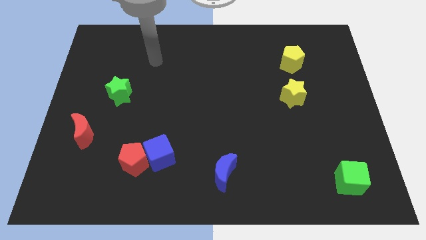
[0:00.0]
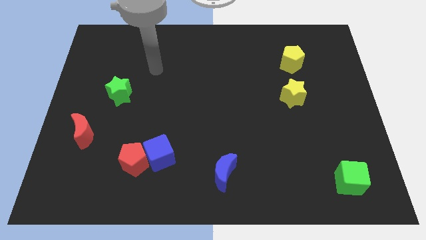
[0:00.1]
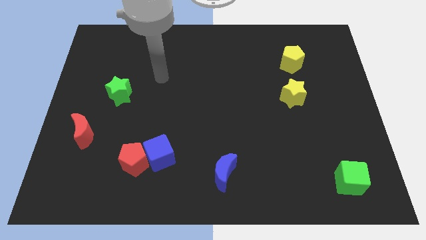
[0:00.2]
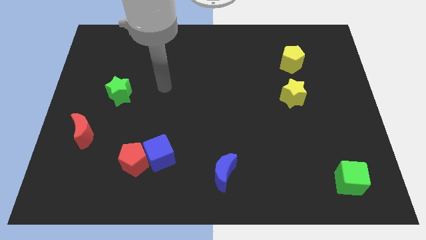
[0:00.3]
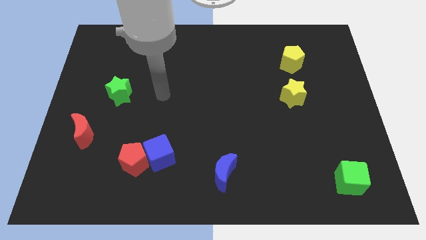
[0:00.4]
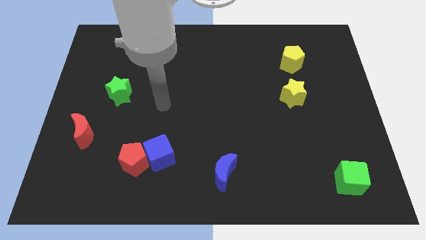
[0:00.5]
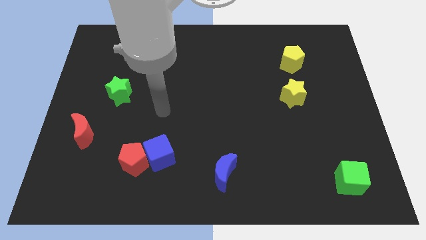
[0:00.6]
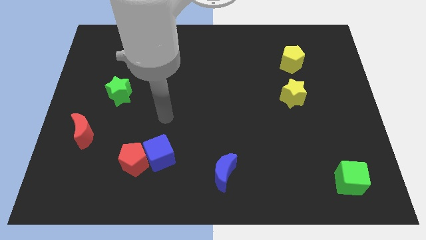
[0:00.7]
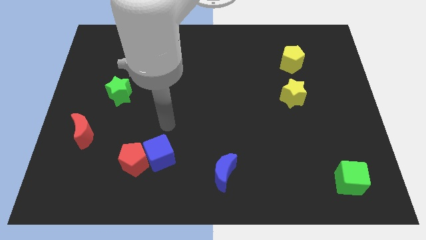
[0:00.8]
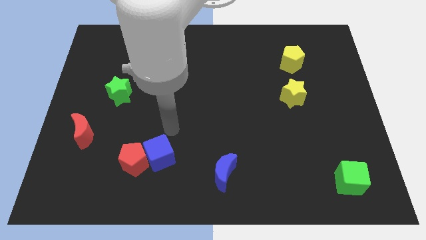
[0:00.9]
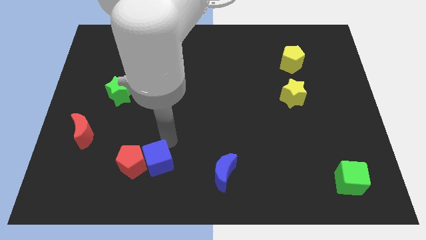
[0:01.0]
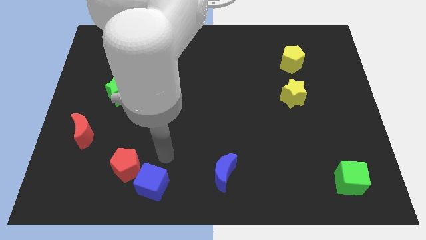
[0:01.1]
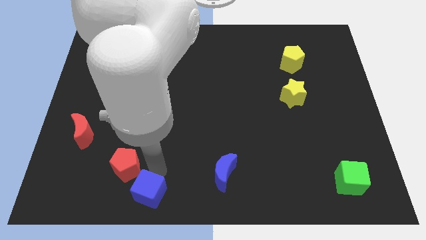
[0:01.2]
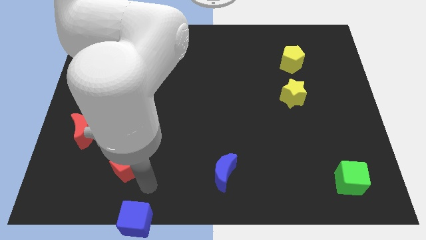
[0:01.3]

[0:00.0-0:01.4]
pull the red pentagon apart from the blue cube

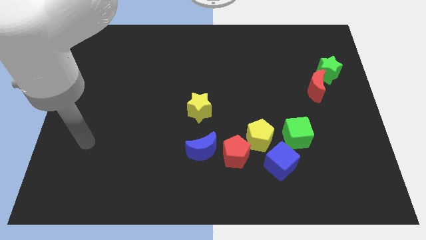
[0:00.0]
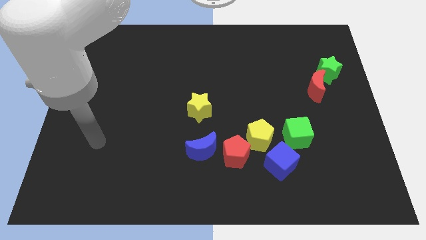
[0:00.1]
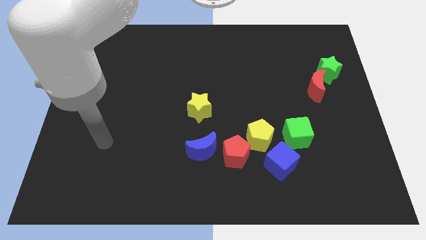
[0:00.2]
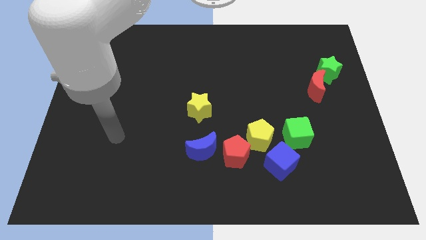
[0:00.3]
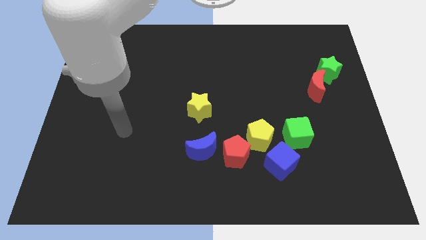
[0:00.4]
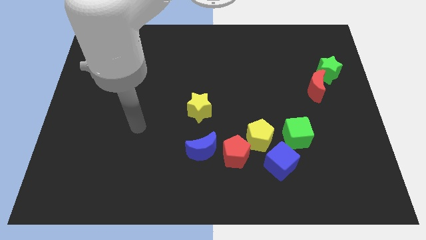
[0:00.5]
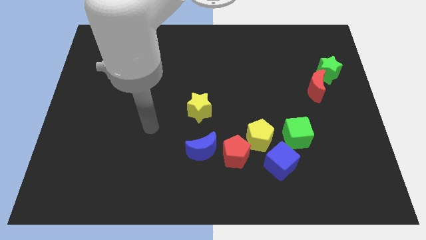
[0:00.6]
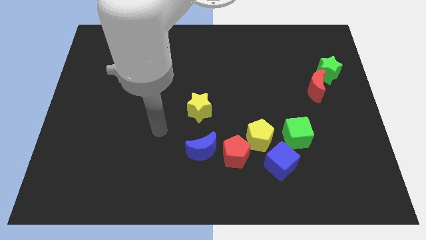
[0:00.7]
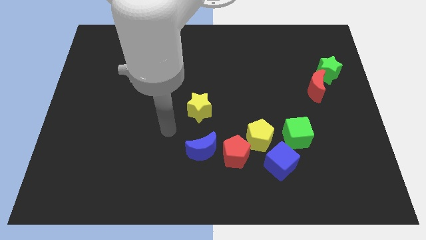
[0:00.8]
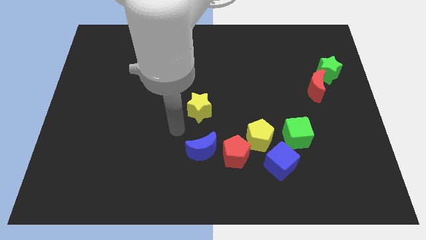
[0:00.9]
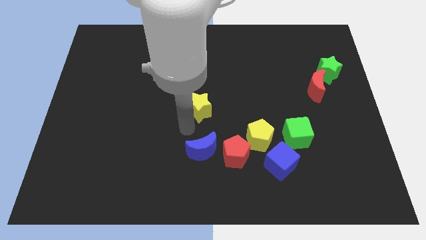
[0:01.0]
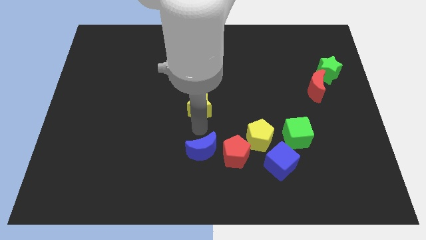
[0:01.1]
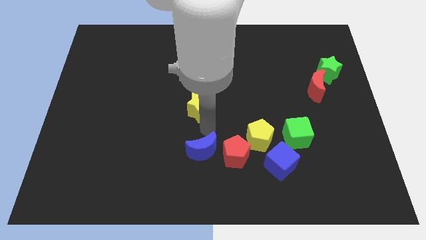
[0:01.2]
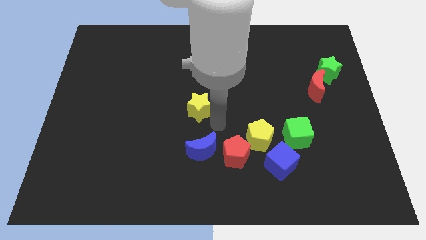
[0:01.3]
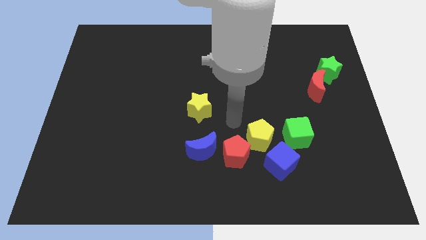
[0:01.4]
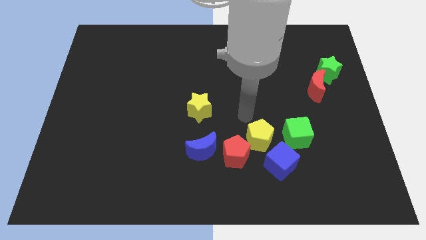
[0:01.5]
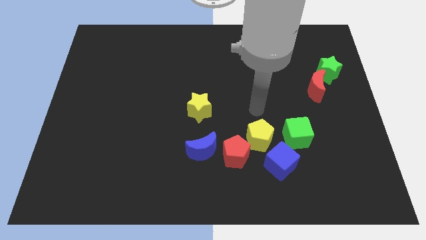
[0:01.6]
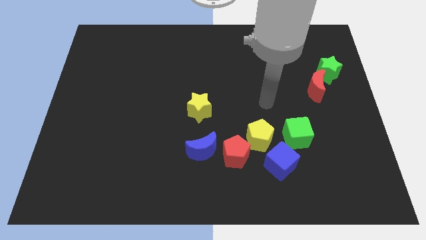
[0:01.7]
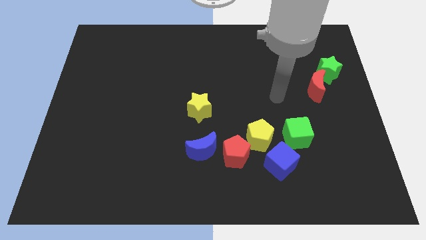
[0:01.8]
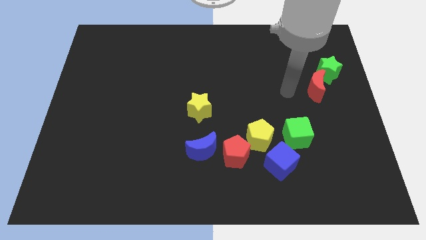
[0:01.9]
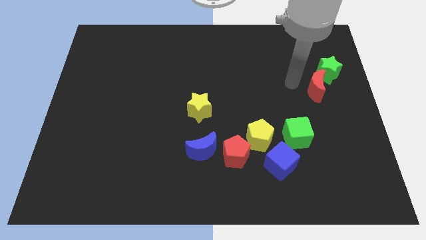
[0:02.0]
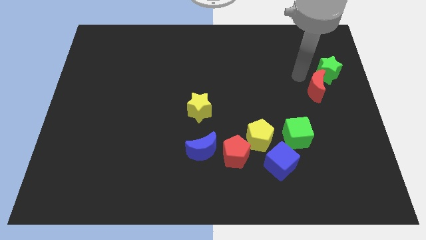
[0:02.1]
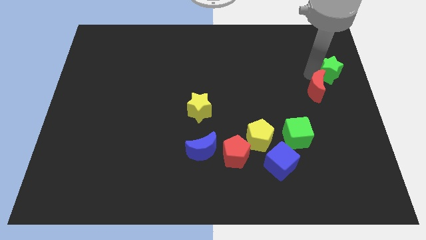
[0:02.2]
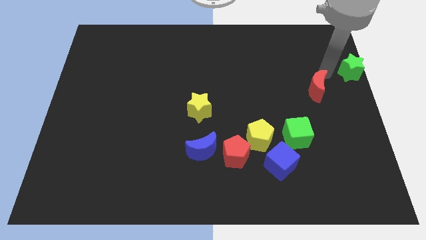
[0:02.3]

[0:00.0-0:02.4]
pull the red moon apart from the green star

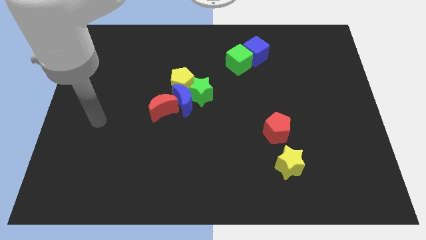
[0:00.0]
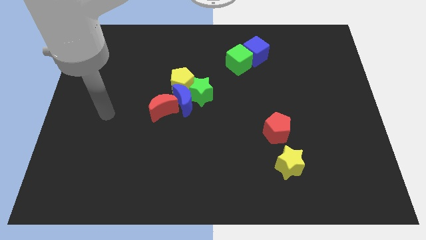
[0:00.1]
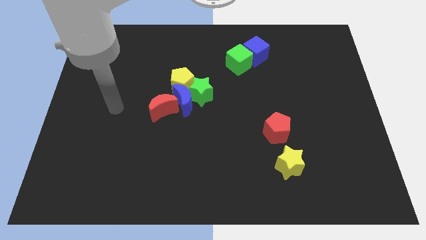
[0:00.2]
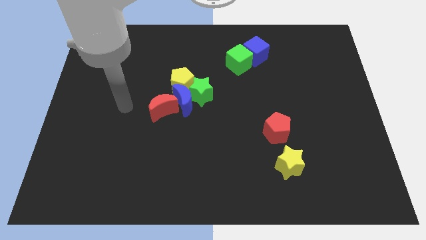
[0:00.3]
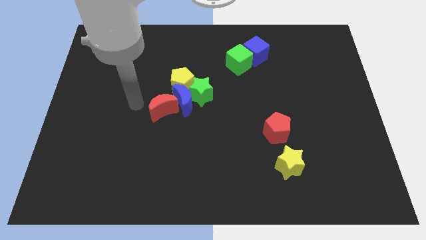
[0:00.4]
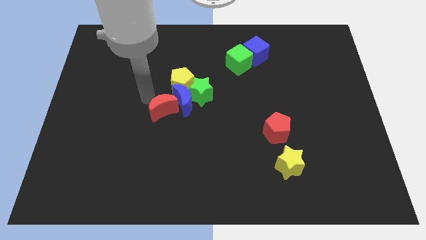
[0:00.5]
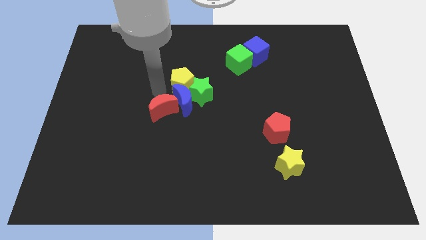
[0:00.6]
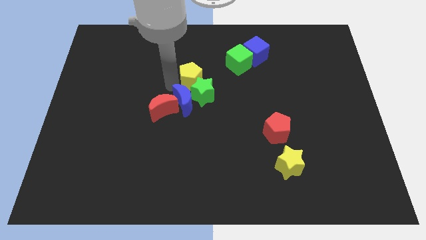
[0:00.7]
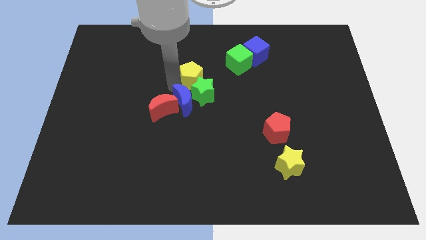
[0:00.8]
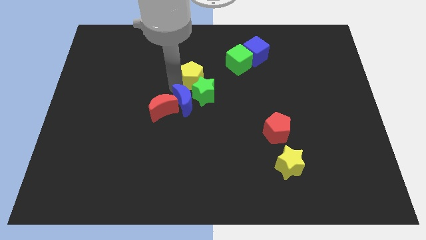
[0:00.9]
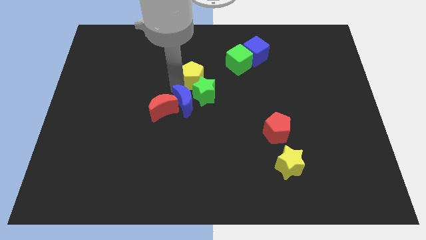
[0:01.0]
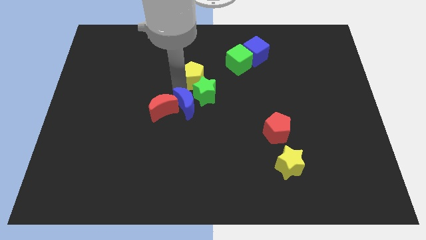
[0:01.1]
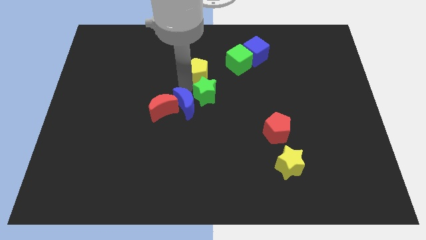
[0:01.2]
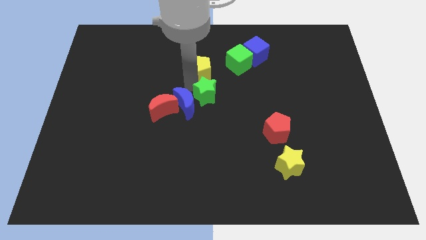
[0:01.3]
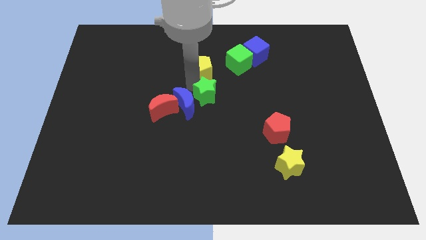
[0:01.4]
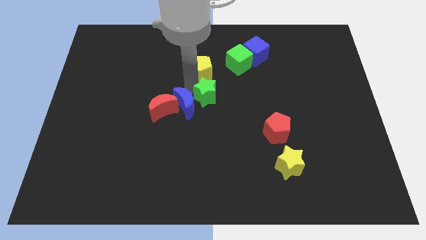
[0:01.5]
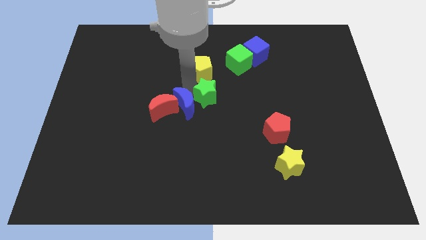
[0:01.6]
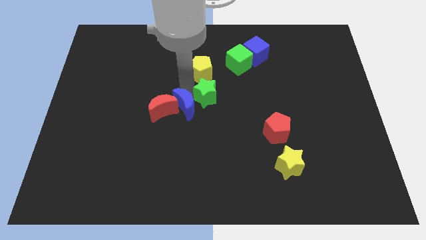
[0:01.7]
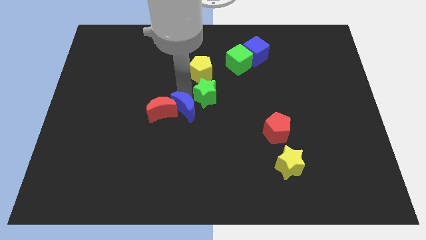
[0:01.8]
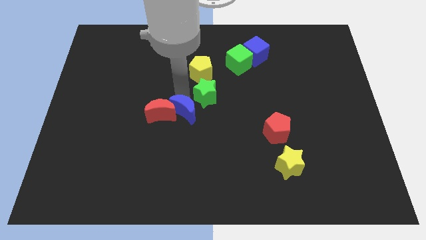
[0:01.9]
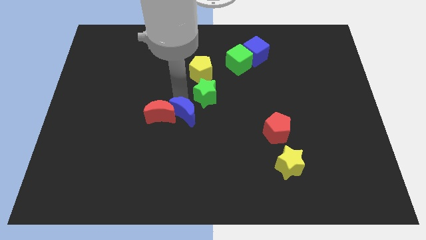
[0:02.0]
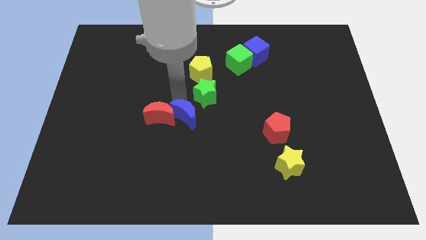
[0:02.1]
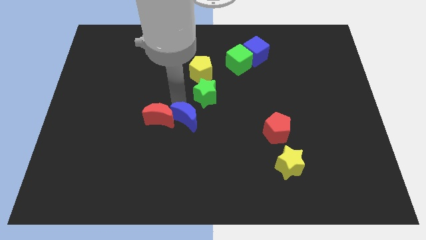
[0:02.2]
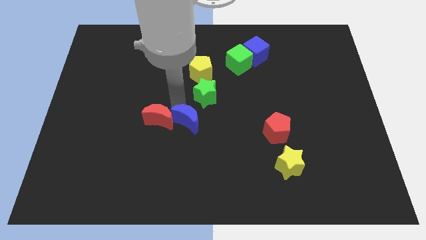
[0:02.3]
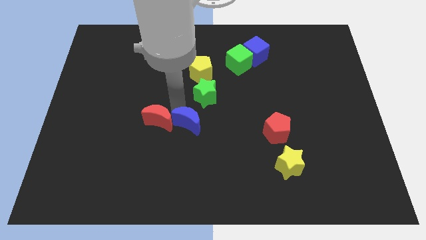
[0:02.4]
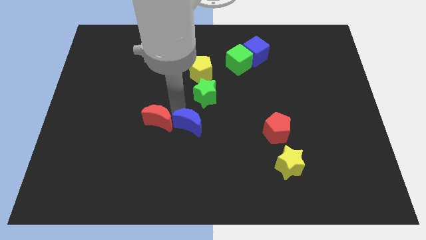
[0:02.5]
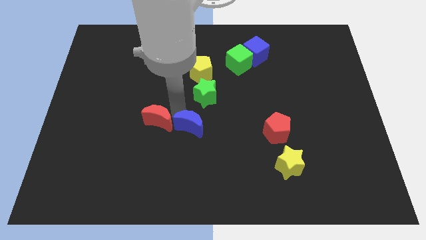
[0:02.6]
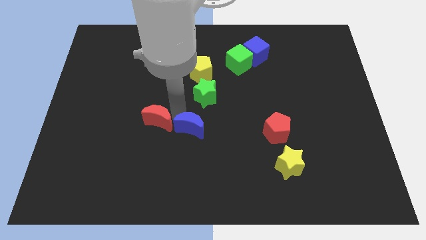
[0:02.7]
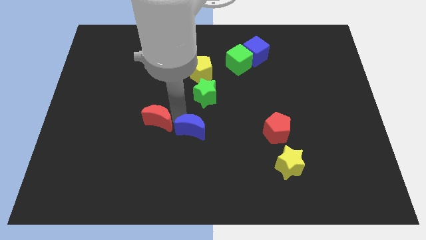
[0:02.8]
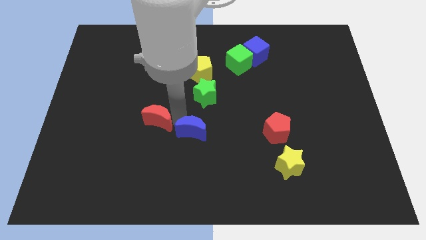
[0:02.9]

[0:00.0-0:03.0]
pull the blue moon apart from the green star, yellow pentagon, and red moon

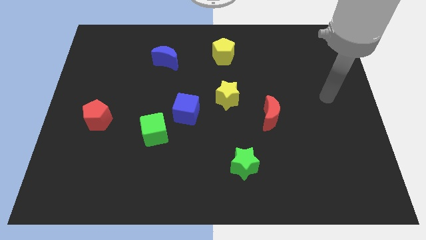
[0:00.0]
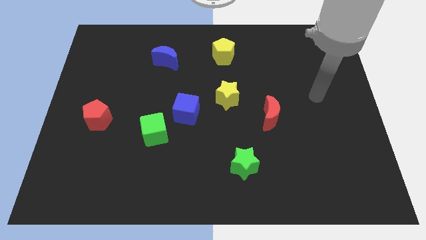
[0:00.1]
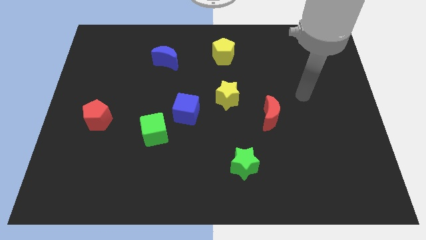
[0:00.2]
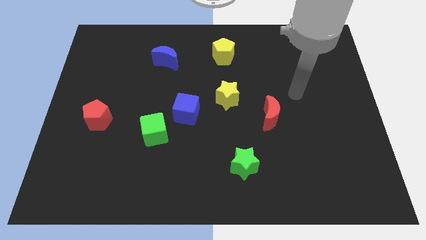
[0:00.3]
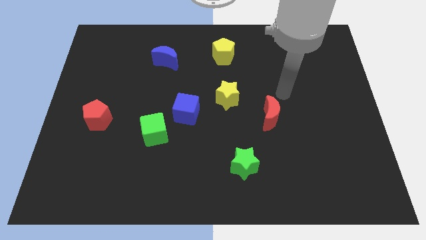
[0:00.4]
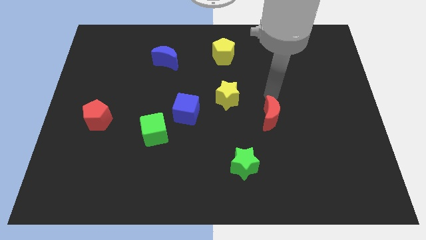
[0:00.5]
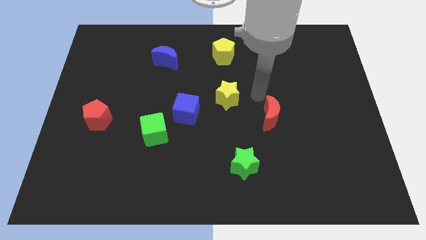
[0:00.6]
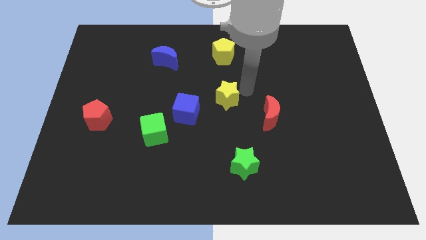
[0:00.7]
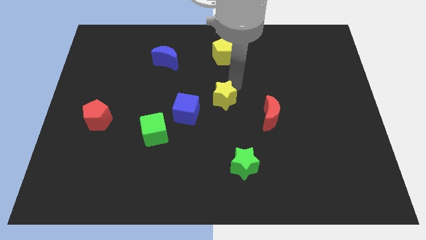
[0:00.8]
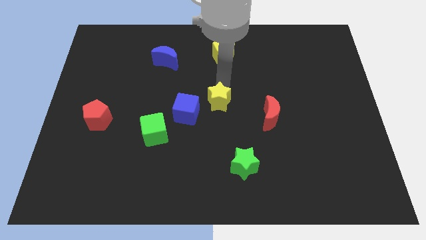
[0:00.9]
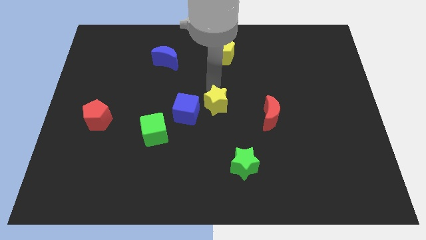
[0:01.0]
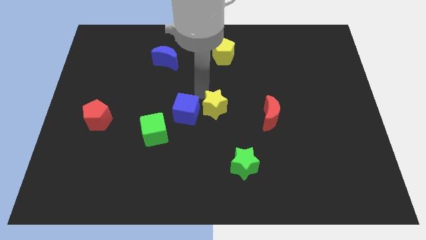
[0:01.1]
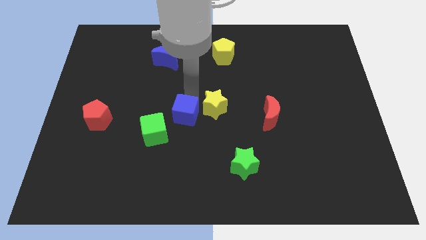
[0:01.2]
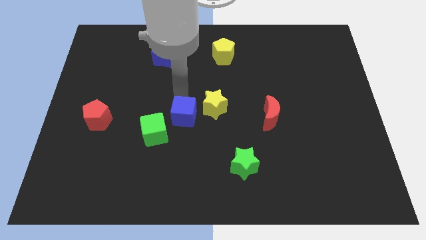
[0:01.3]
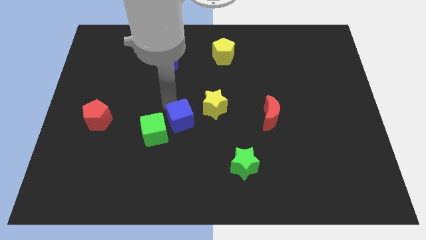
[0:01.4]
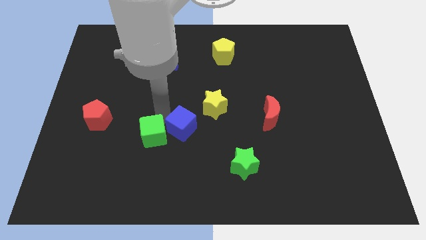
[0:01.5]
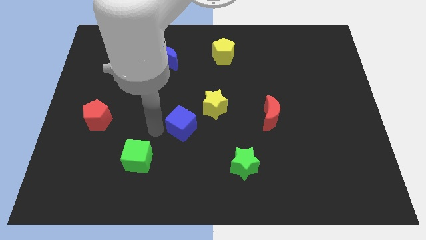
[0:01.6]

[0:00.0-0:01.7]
separate the blue cube from the green cube

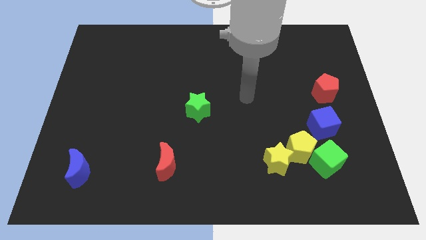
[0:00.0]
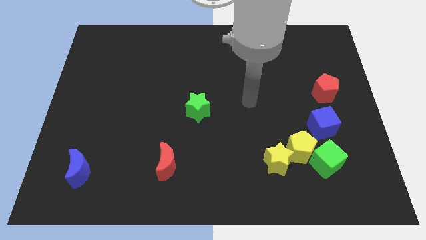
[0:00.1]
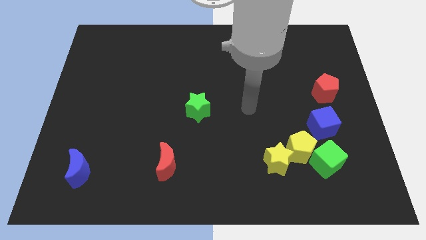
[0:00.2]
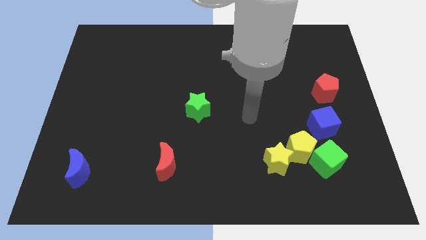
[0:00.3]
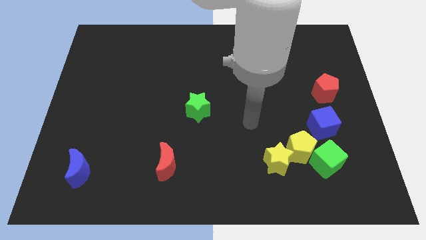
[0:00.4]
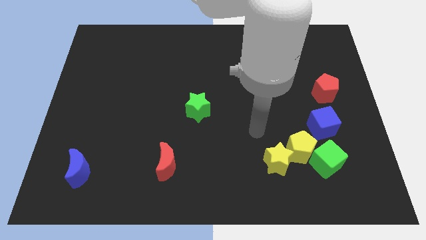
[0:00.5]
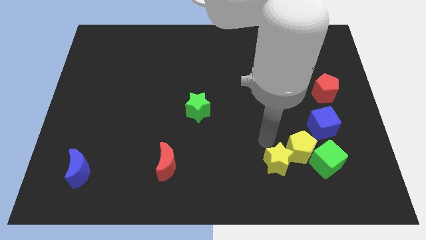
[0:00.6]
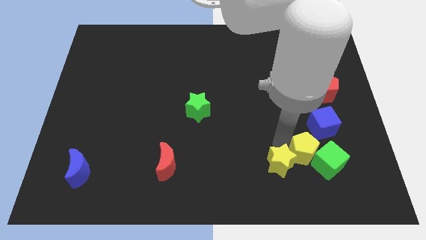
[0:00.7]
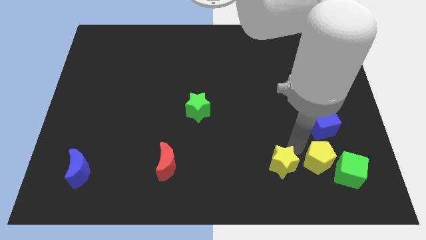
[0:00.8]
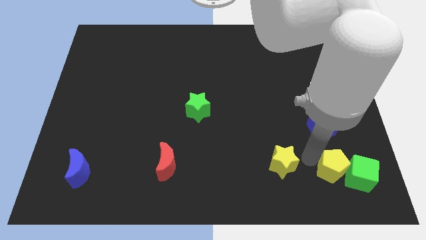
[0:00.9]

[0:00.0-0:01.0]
move the yellow star away from the yellow pentagon
